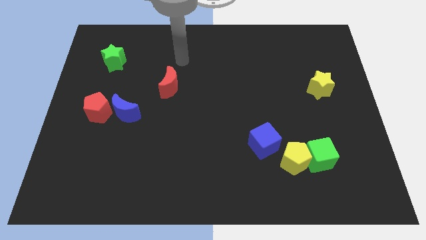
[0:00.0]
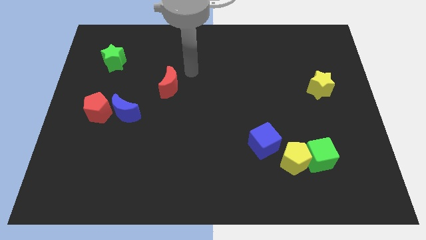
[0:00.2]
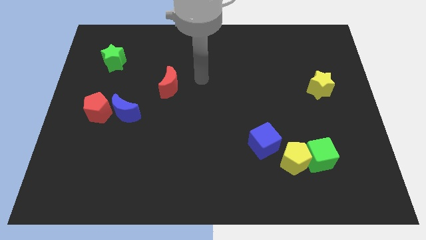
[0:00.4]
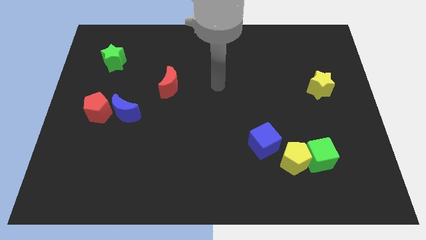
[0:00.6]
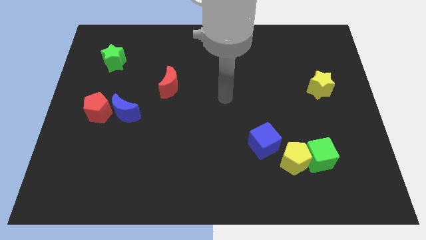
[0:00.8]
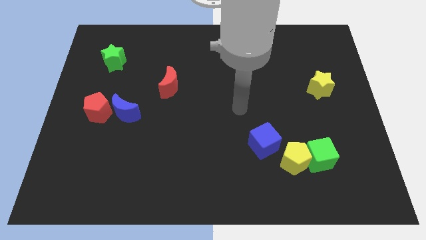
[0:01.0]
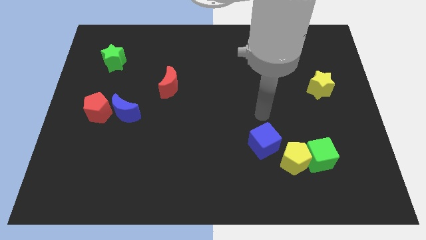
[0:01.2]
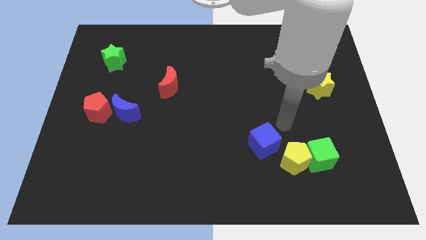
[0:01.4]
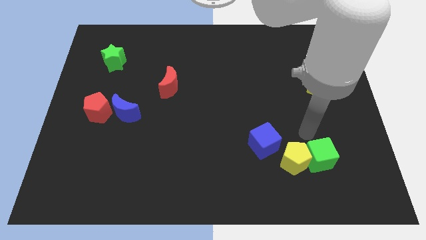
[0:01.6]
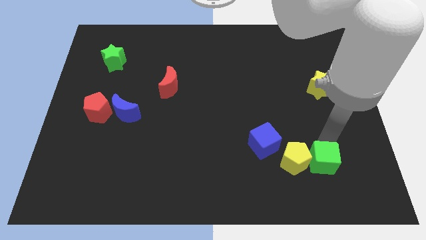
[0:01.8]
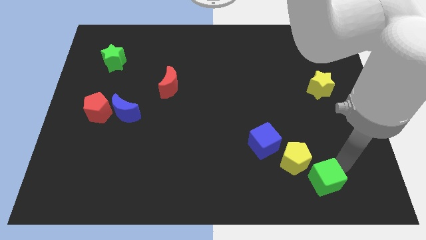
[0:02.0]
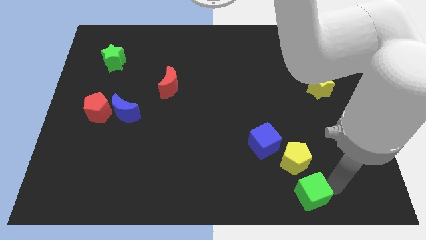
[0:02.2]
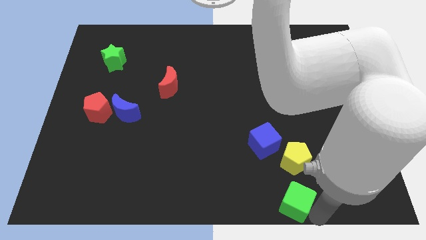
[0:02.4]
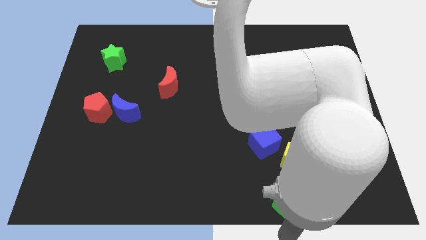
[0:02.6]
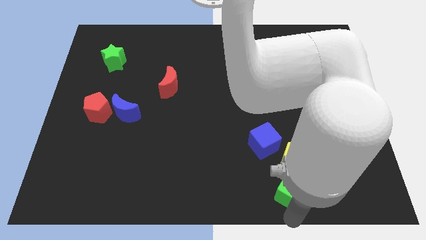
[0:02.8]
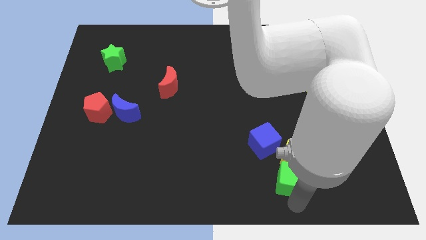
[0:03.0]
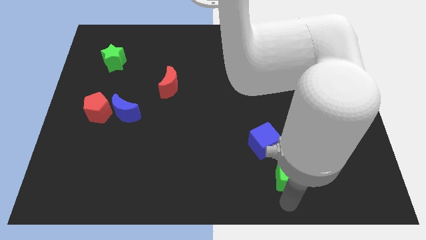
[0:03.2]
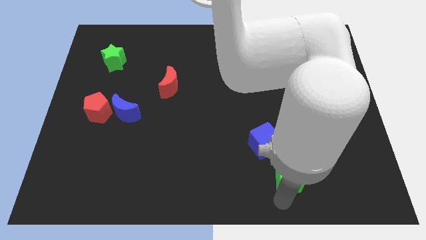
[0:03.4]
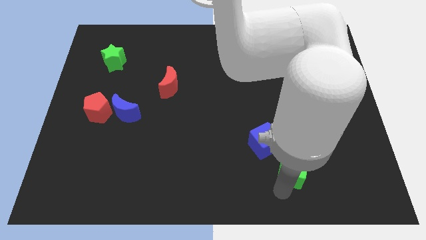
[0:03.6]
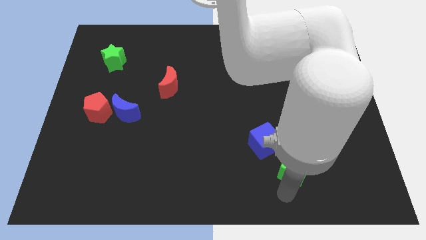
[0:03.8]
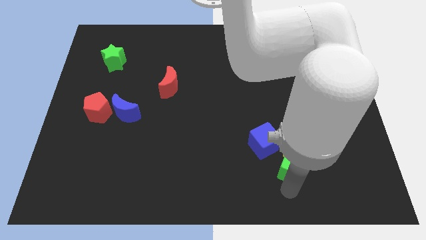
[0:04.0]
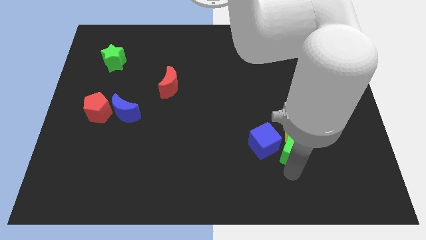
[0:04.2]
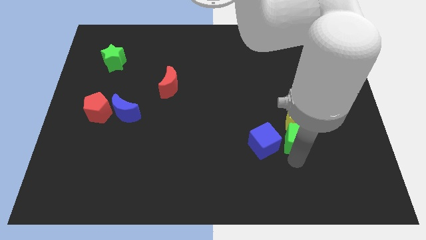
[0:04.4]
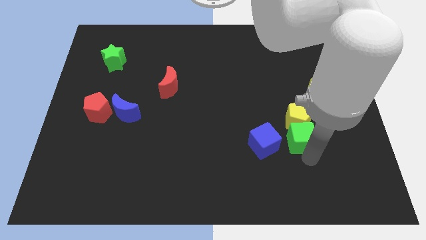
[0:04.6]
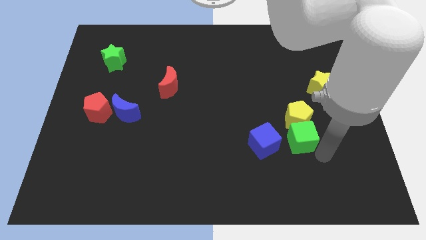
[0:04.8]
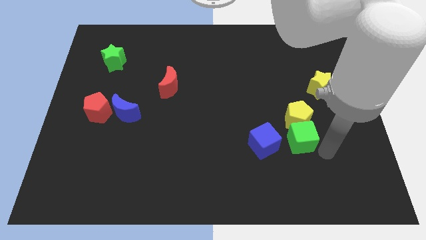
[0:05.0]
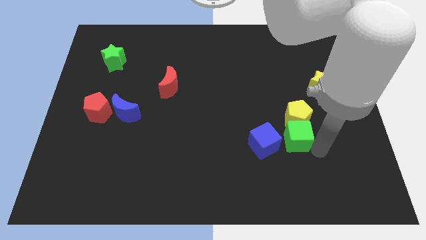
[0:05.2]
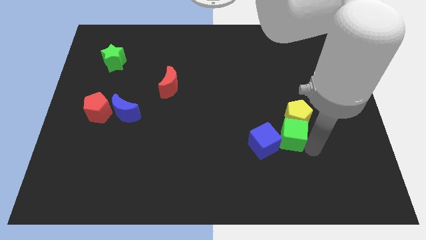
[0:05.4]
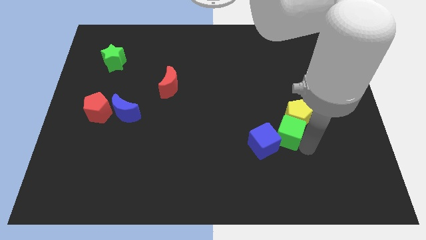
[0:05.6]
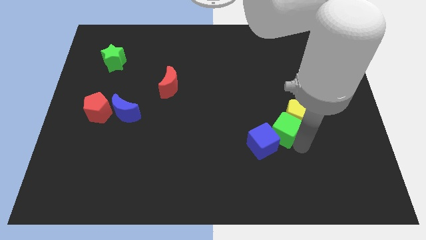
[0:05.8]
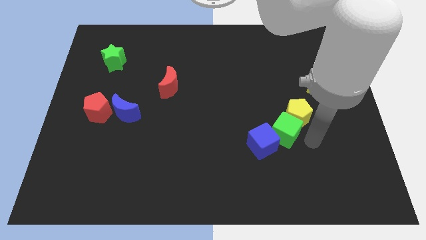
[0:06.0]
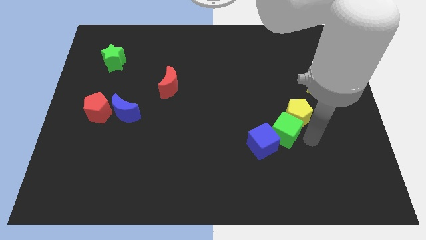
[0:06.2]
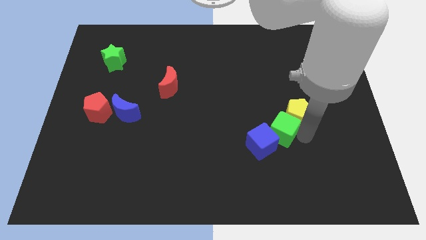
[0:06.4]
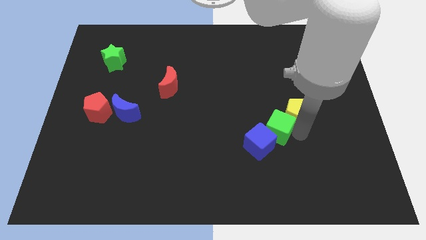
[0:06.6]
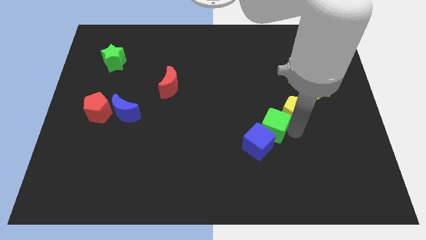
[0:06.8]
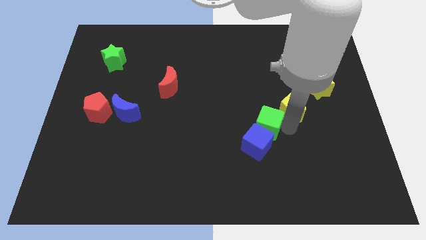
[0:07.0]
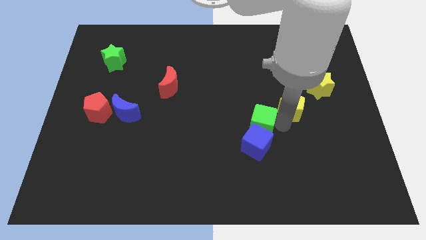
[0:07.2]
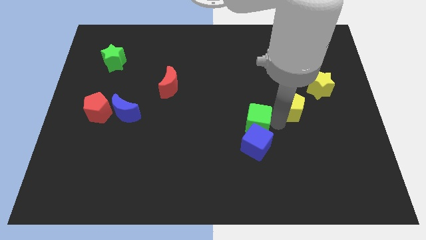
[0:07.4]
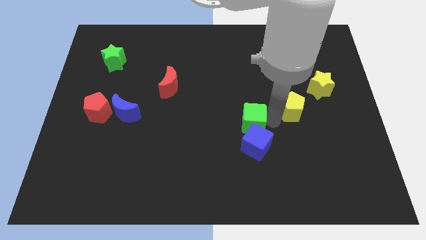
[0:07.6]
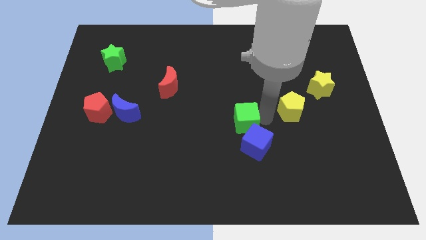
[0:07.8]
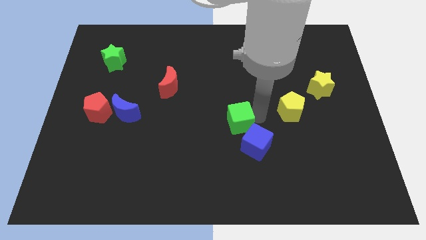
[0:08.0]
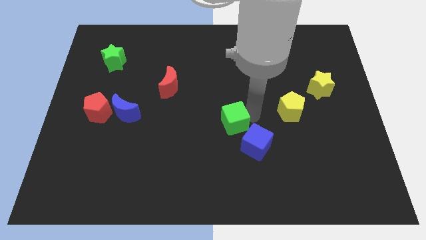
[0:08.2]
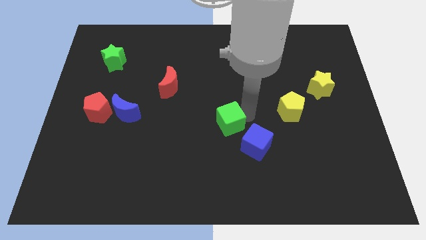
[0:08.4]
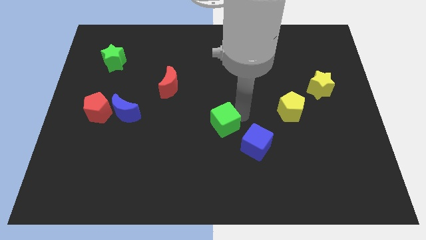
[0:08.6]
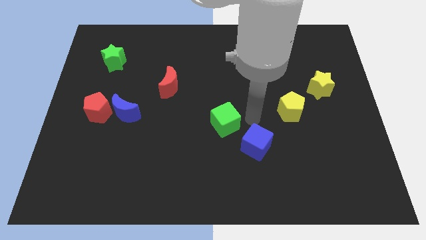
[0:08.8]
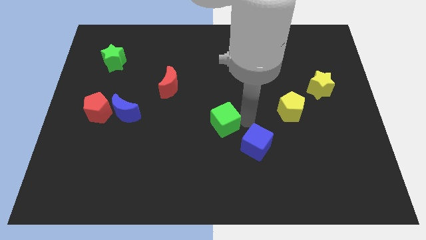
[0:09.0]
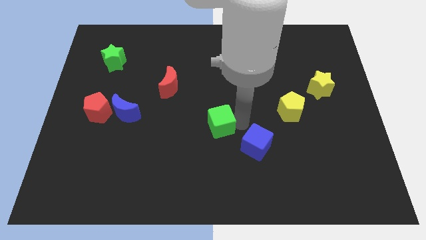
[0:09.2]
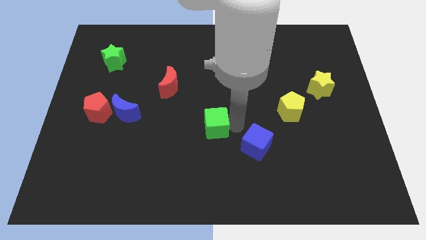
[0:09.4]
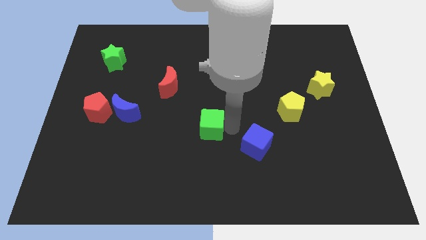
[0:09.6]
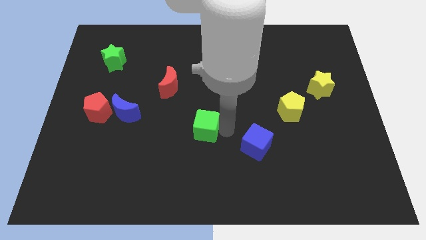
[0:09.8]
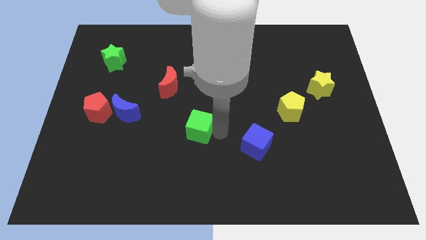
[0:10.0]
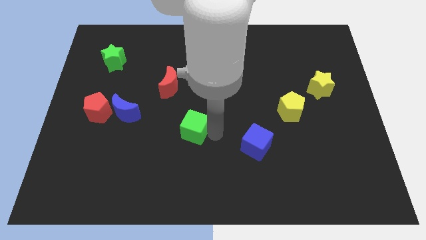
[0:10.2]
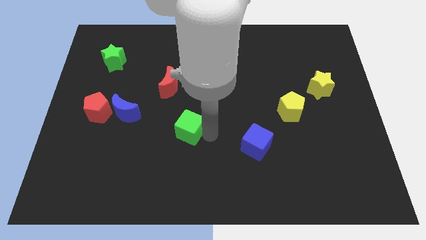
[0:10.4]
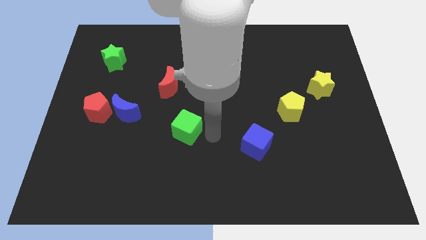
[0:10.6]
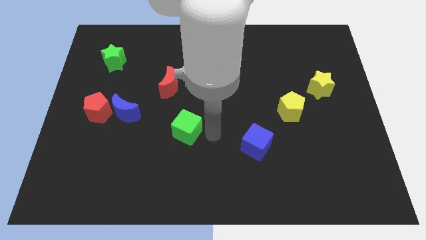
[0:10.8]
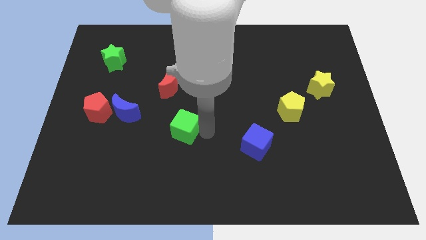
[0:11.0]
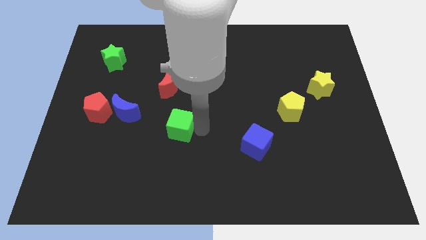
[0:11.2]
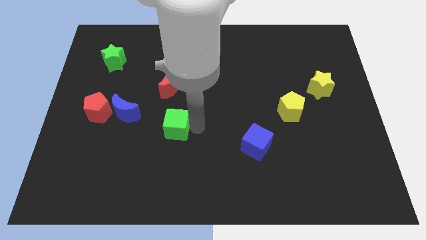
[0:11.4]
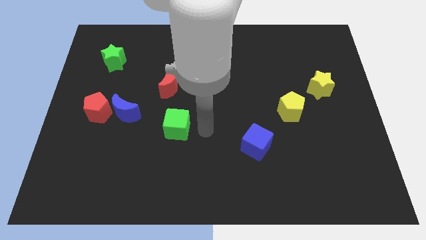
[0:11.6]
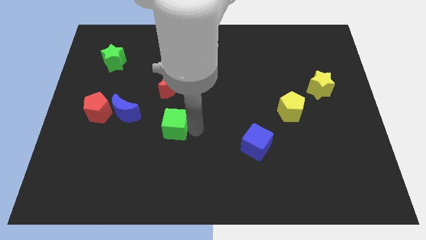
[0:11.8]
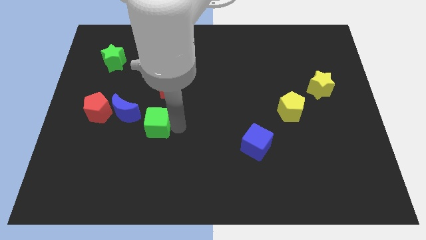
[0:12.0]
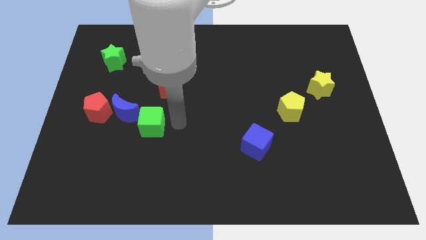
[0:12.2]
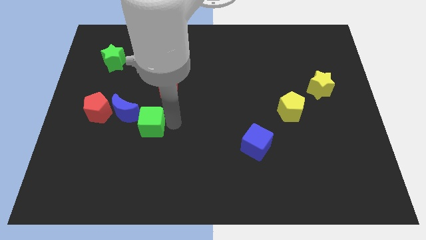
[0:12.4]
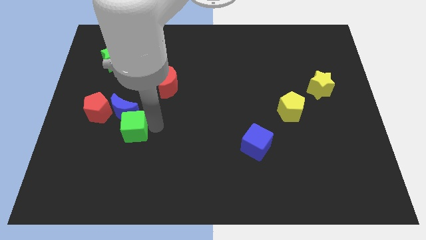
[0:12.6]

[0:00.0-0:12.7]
move the green cube diagonally down and to the right of the red pentagon
